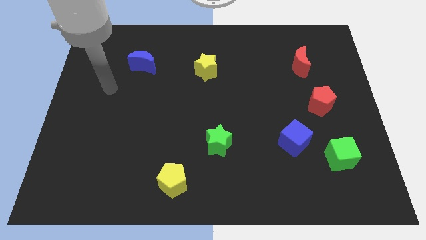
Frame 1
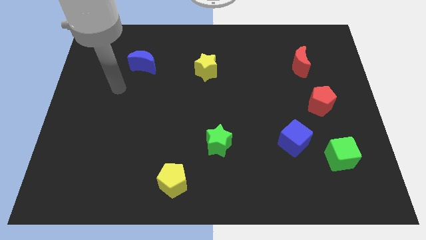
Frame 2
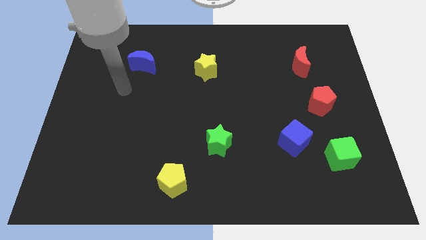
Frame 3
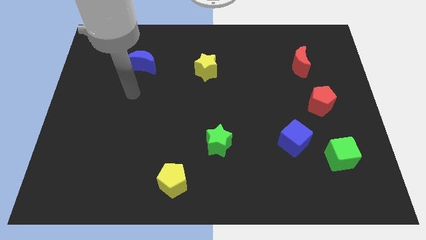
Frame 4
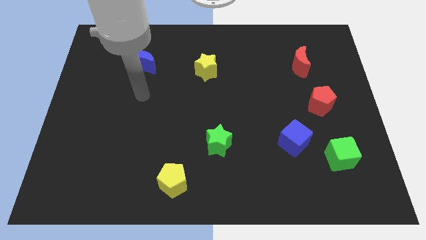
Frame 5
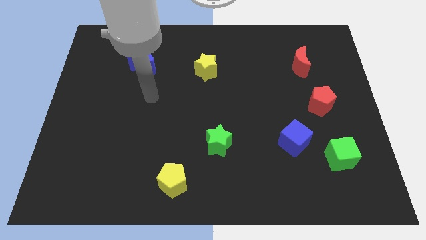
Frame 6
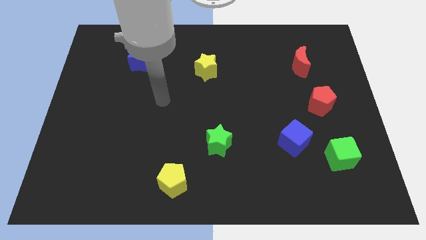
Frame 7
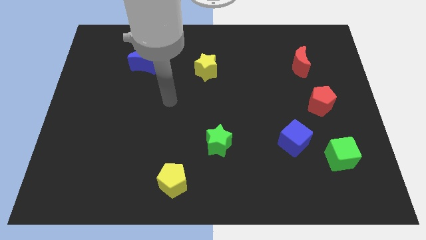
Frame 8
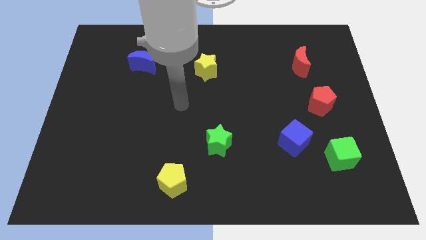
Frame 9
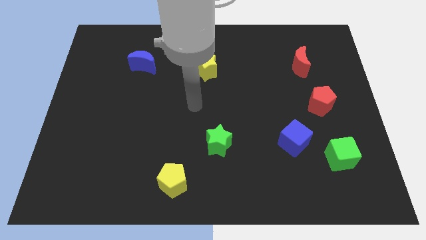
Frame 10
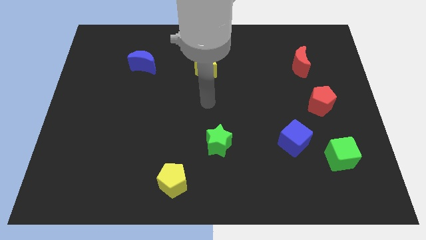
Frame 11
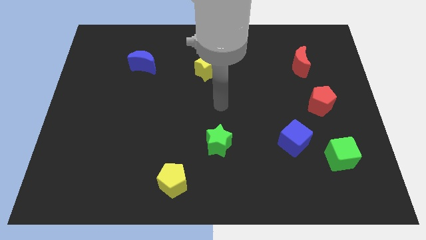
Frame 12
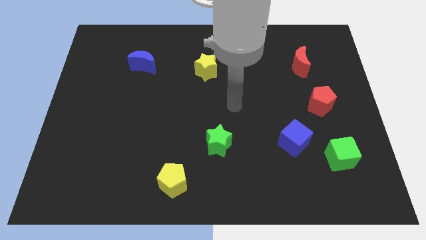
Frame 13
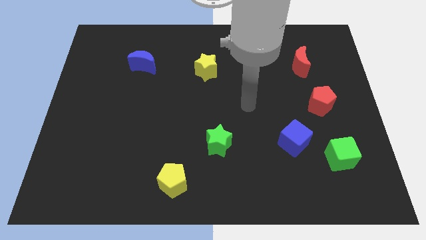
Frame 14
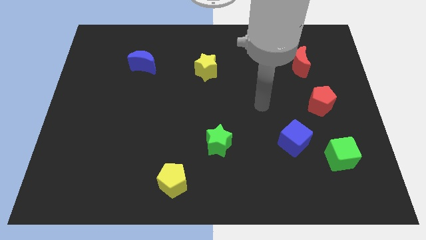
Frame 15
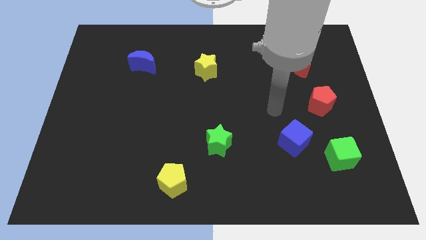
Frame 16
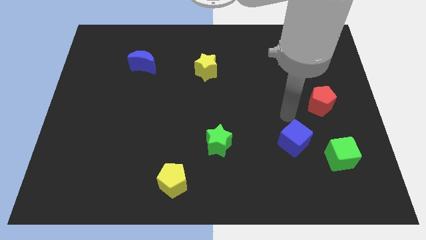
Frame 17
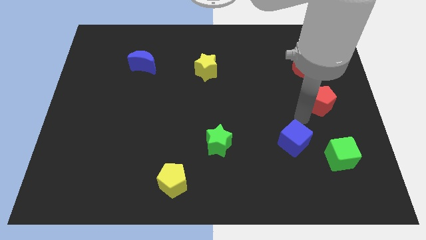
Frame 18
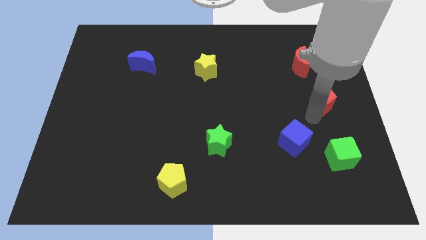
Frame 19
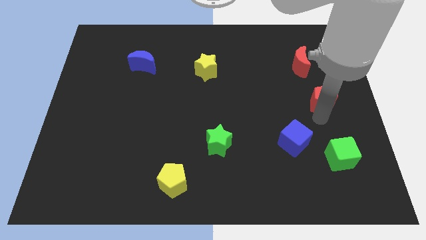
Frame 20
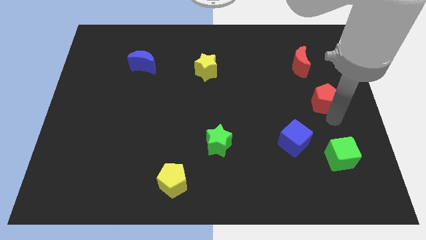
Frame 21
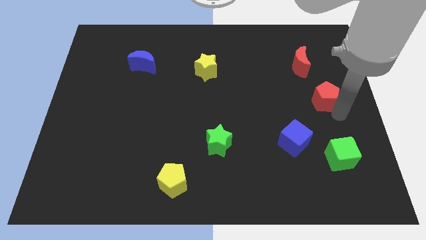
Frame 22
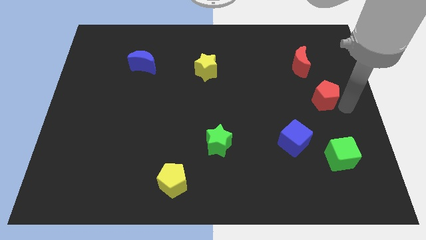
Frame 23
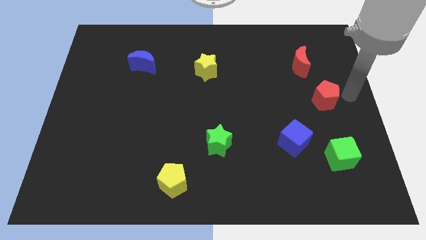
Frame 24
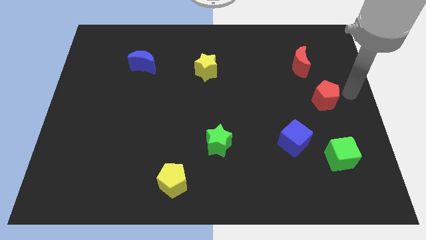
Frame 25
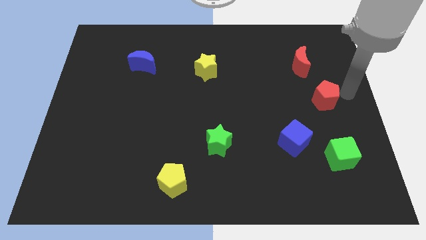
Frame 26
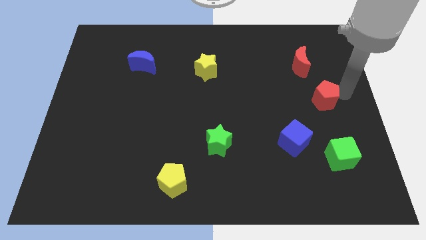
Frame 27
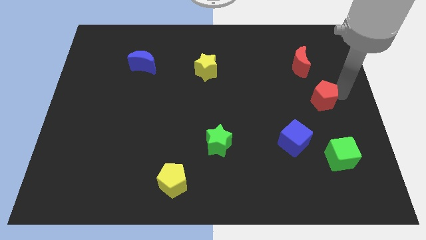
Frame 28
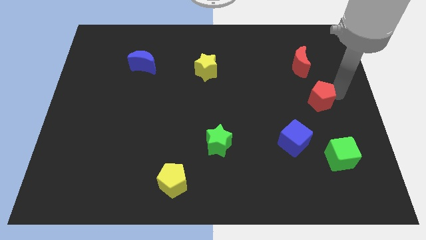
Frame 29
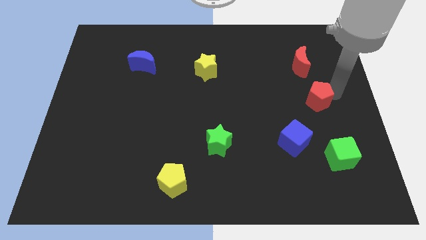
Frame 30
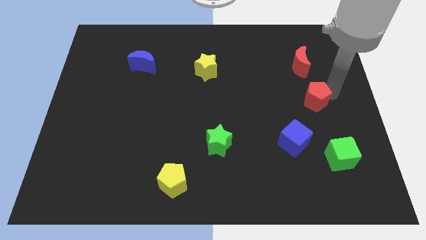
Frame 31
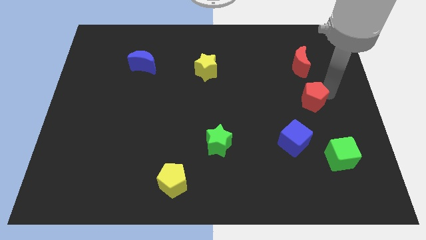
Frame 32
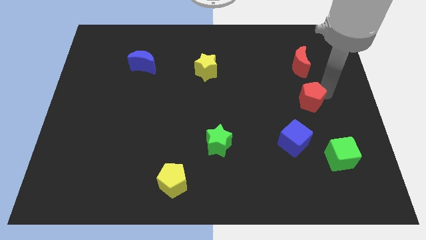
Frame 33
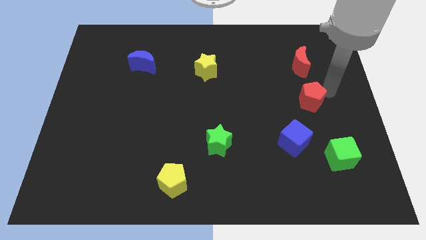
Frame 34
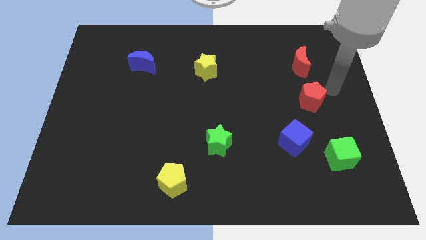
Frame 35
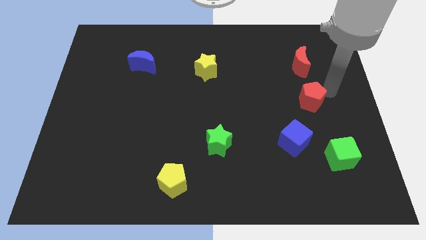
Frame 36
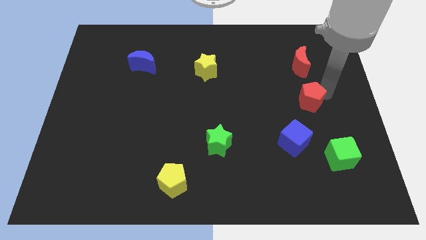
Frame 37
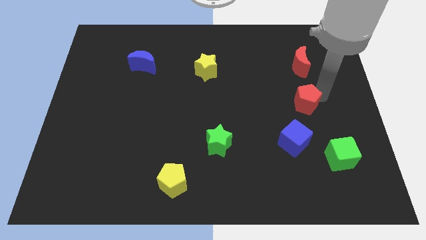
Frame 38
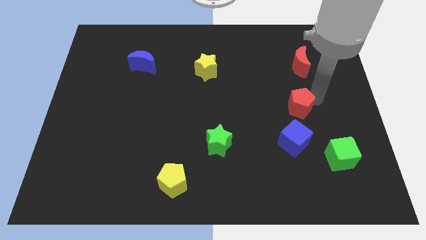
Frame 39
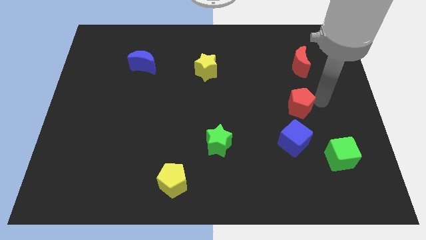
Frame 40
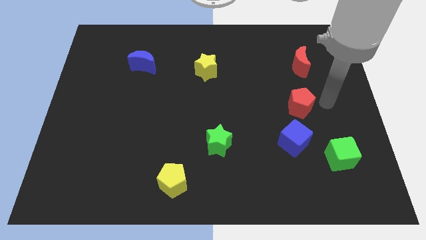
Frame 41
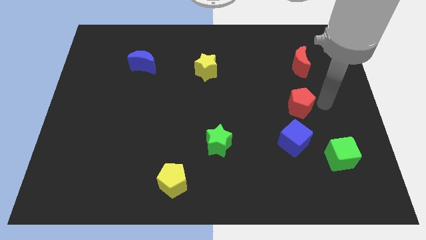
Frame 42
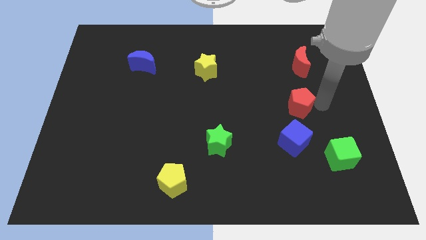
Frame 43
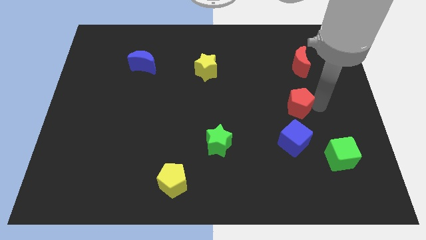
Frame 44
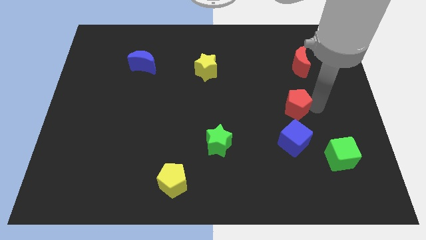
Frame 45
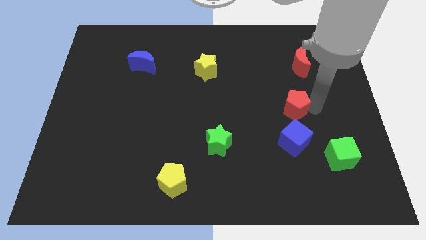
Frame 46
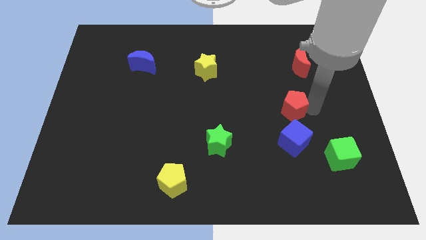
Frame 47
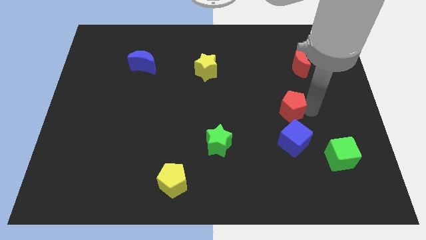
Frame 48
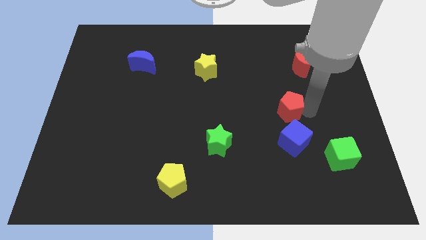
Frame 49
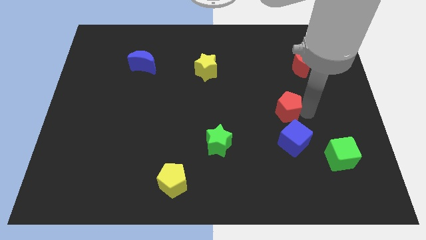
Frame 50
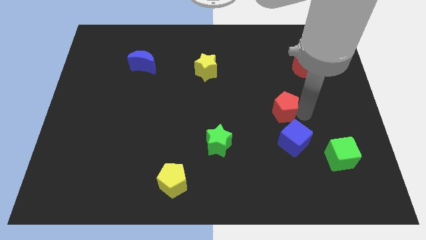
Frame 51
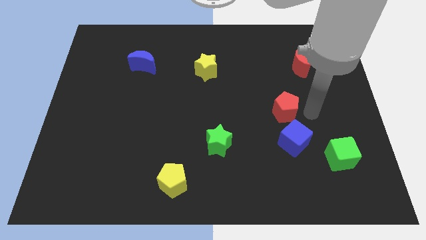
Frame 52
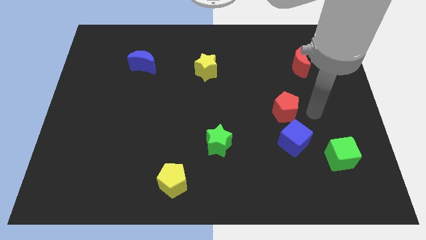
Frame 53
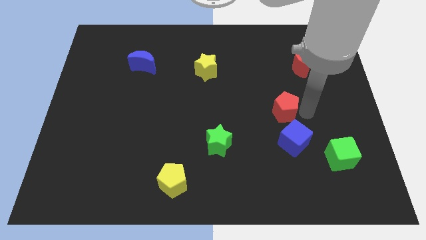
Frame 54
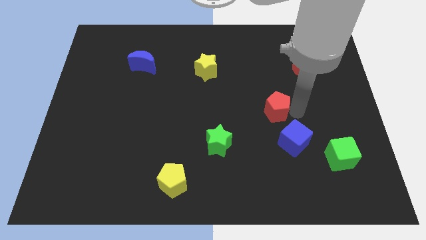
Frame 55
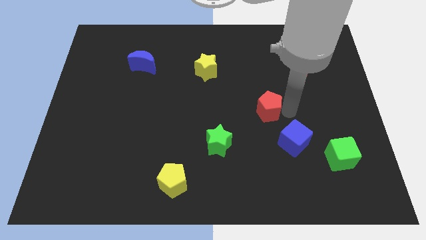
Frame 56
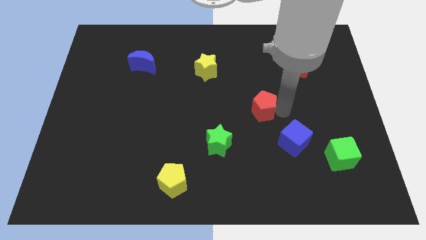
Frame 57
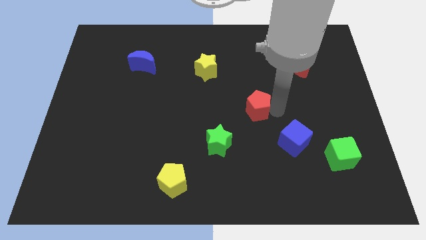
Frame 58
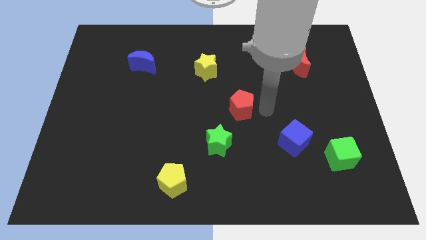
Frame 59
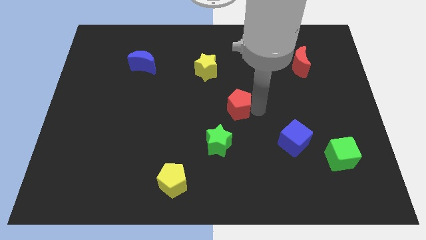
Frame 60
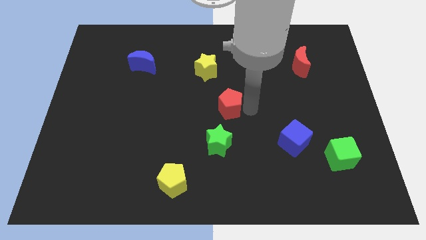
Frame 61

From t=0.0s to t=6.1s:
move the red pentagon to the left

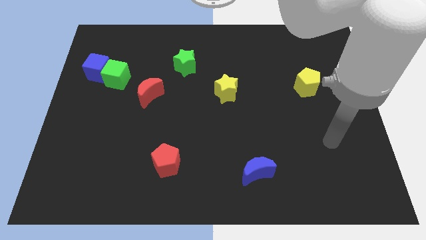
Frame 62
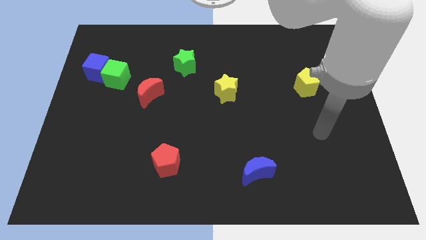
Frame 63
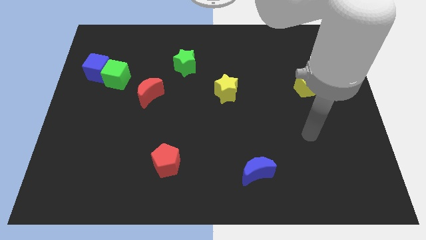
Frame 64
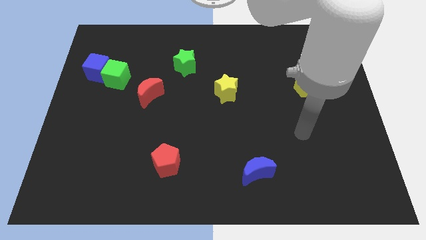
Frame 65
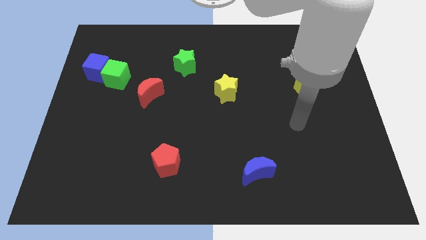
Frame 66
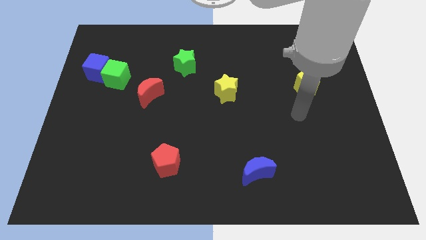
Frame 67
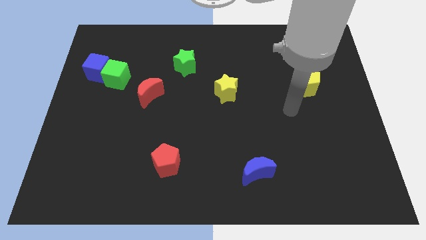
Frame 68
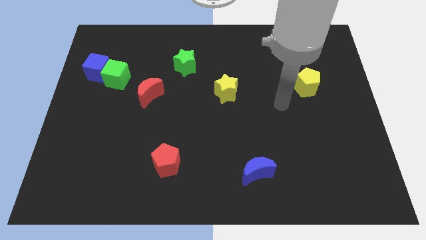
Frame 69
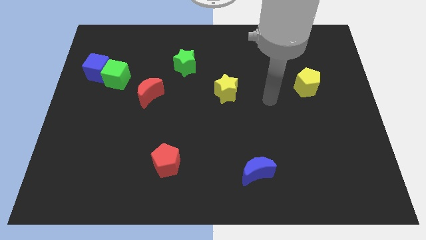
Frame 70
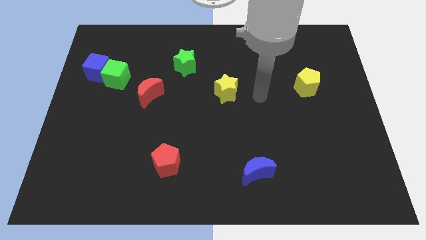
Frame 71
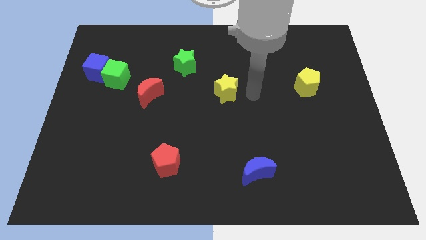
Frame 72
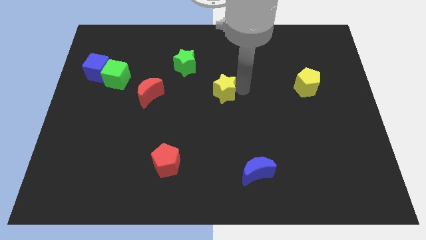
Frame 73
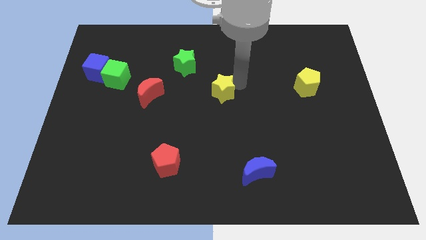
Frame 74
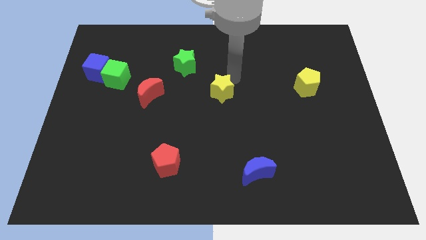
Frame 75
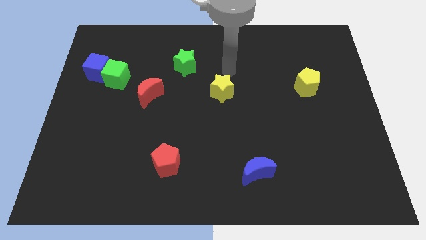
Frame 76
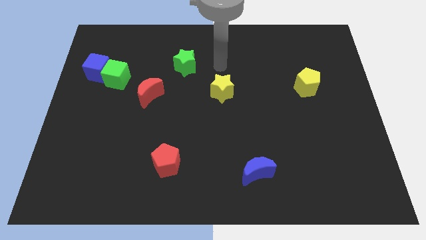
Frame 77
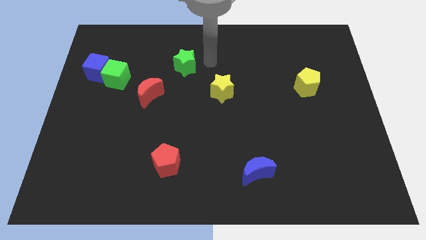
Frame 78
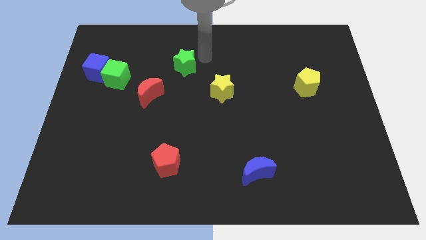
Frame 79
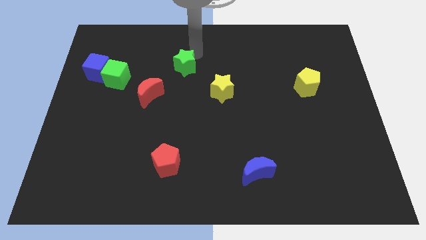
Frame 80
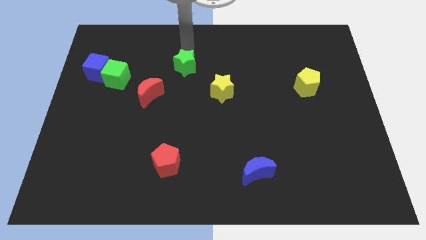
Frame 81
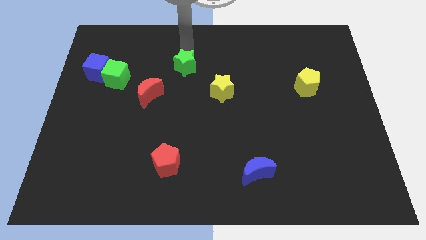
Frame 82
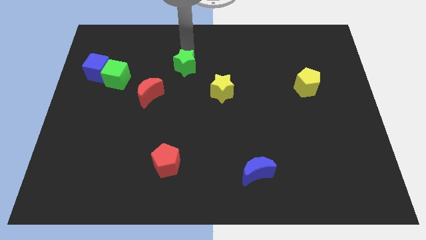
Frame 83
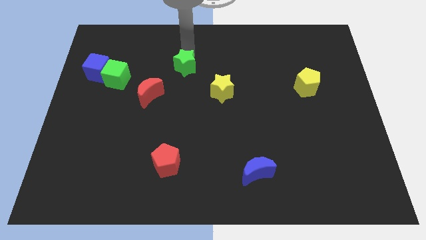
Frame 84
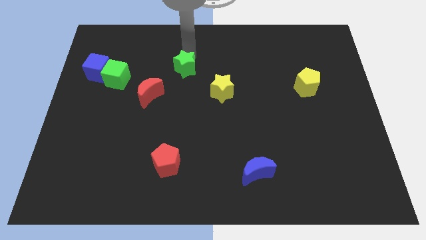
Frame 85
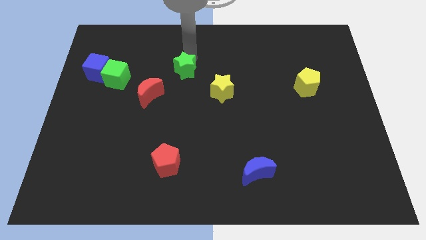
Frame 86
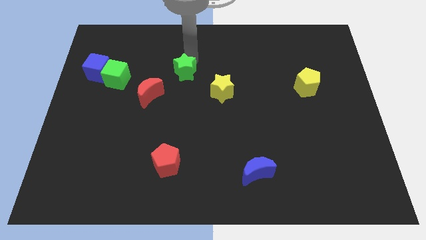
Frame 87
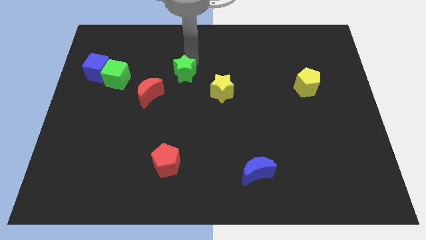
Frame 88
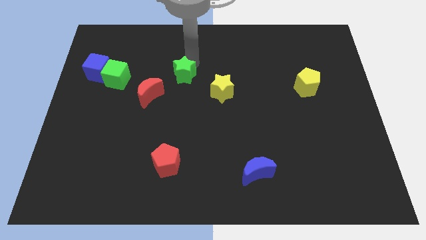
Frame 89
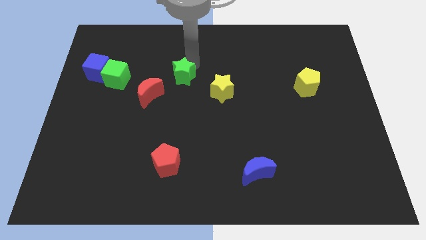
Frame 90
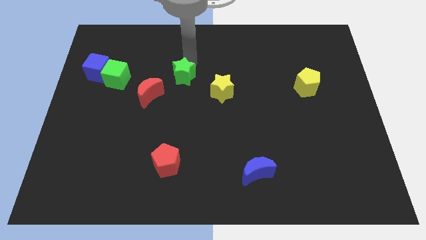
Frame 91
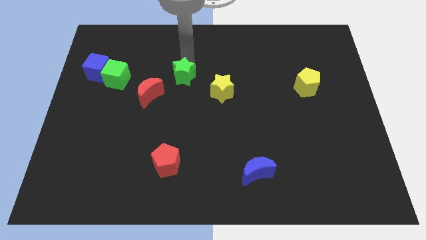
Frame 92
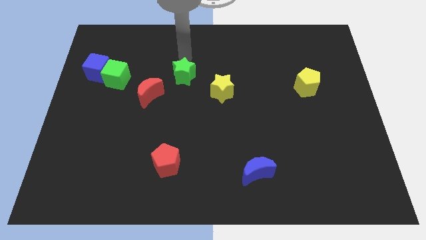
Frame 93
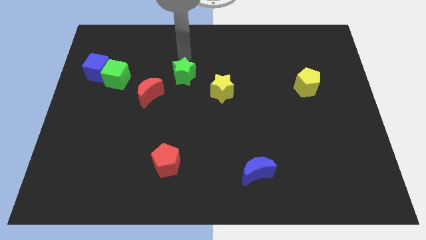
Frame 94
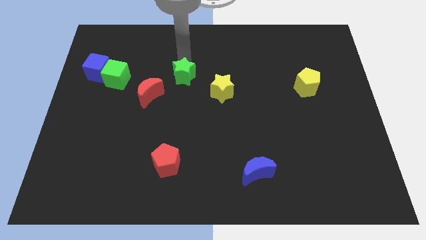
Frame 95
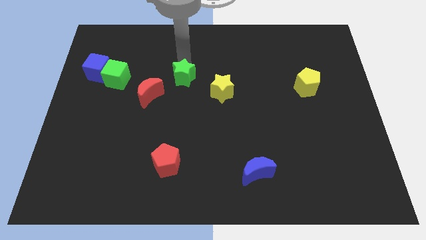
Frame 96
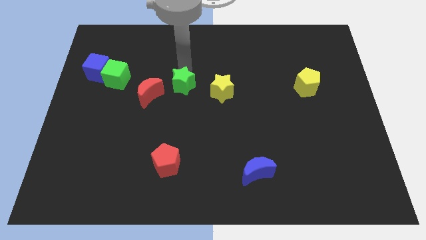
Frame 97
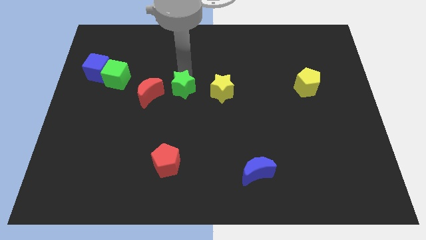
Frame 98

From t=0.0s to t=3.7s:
slightly push the green star down
